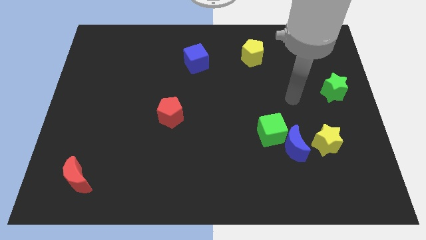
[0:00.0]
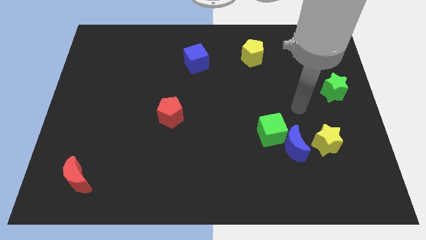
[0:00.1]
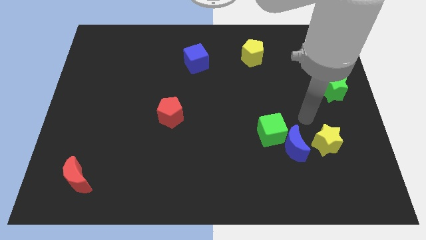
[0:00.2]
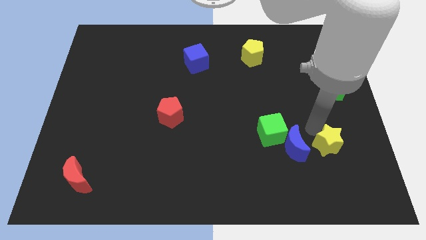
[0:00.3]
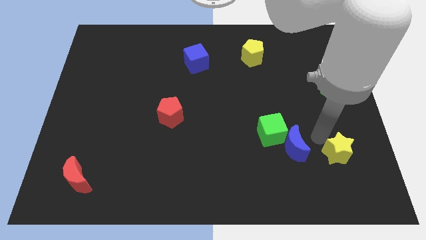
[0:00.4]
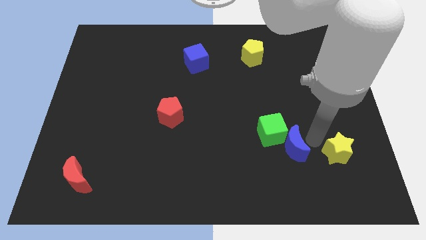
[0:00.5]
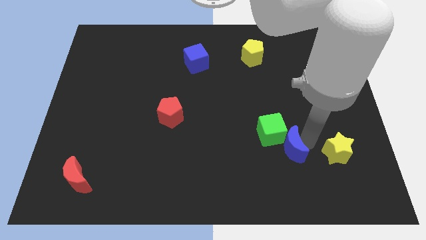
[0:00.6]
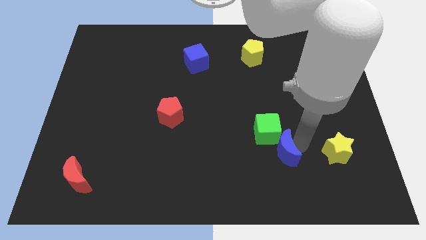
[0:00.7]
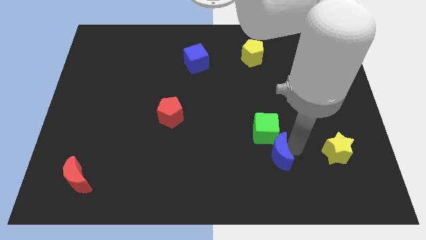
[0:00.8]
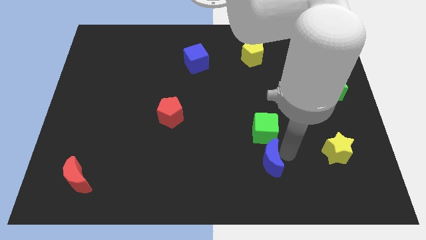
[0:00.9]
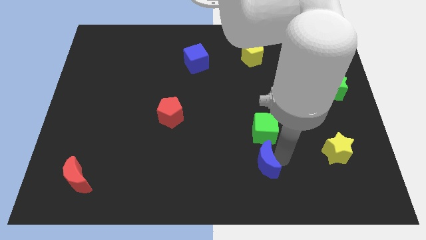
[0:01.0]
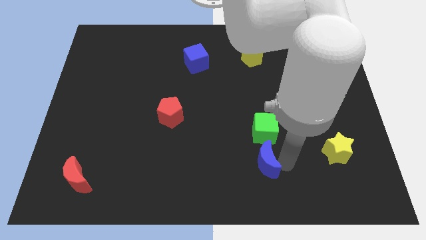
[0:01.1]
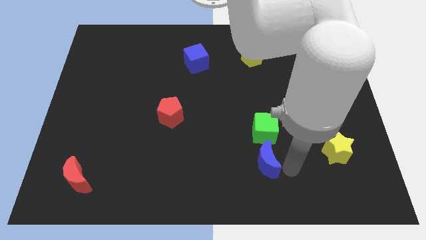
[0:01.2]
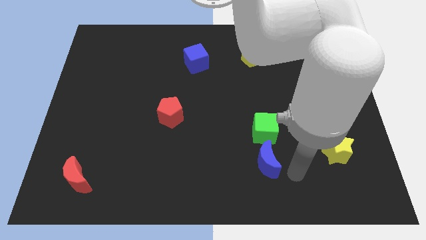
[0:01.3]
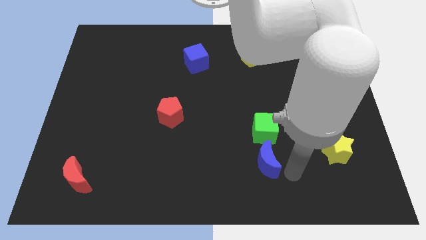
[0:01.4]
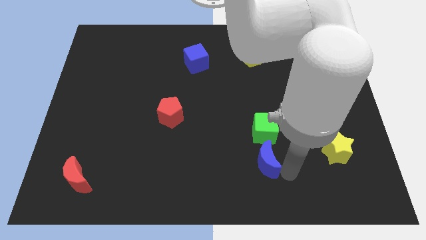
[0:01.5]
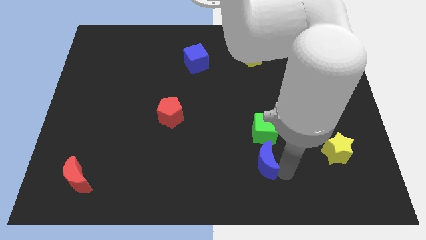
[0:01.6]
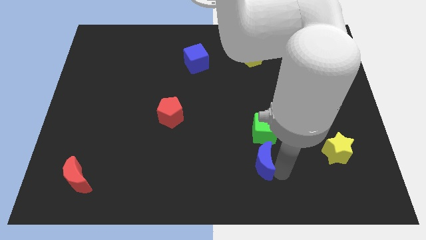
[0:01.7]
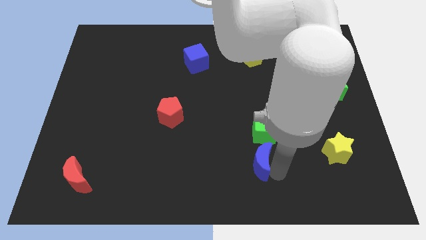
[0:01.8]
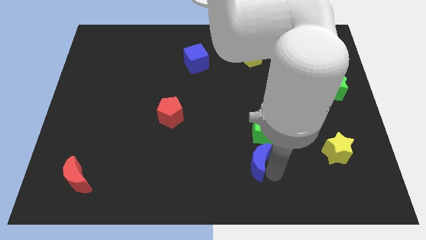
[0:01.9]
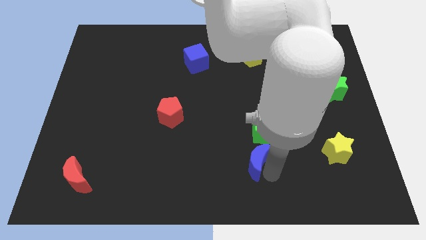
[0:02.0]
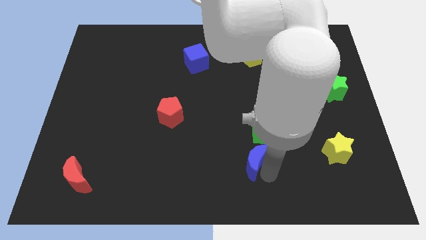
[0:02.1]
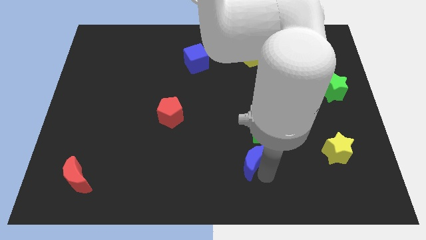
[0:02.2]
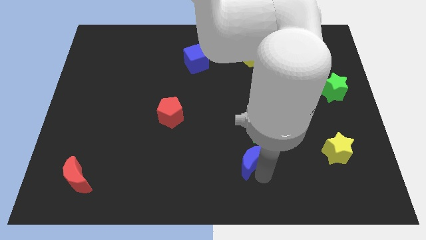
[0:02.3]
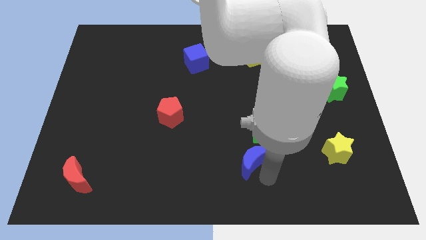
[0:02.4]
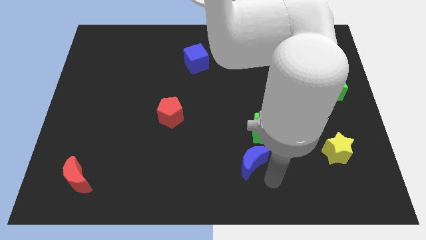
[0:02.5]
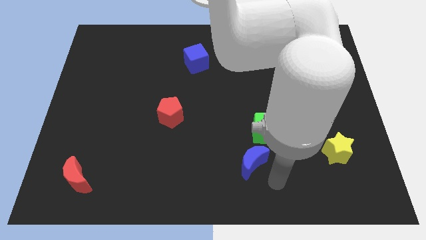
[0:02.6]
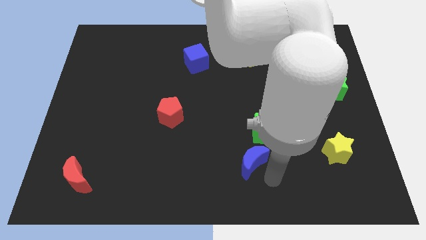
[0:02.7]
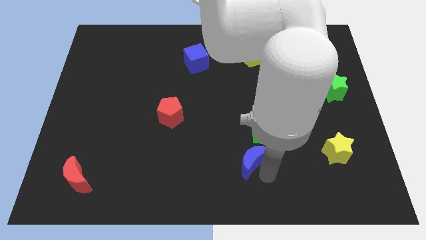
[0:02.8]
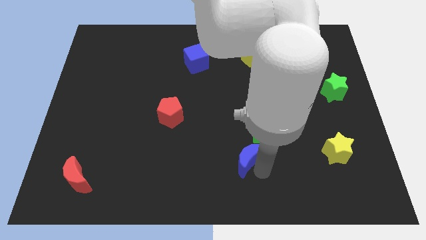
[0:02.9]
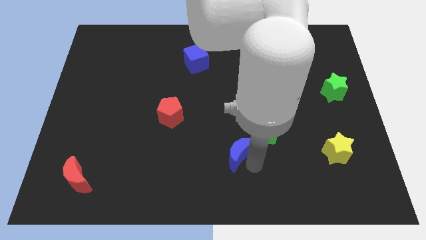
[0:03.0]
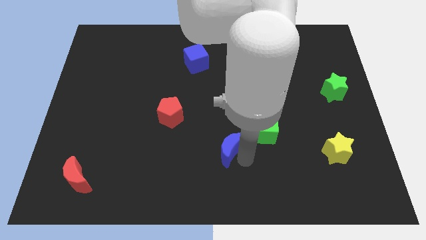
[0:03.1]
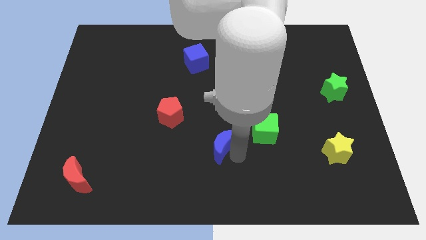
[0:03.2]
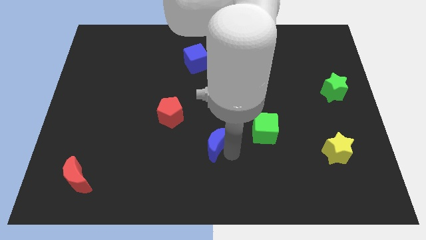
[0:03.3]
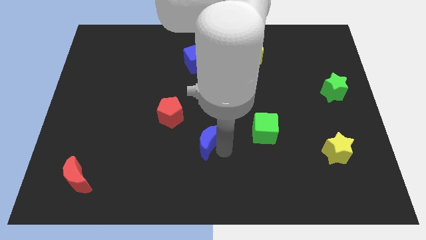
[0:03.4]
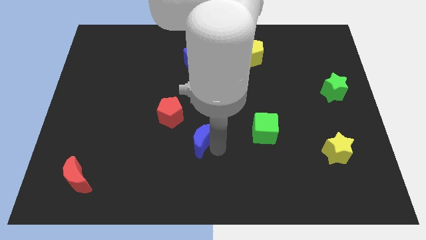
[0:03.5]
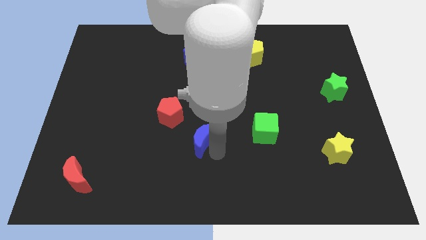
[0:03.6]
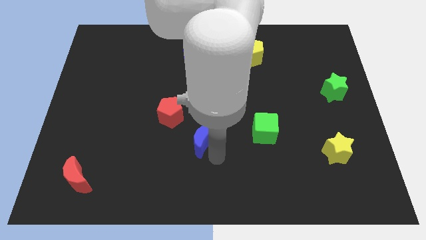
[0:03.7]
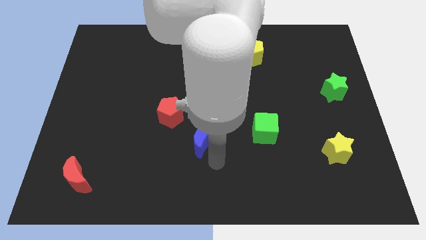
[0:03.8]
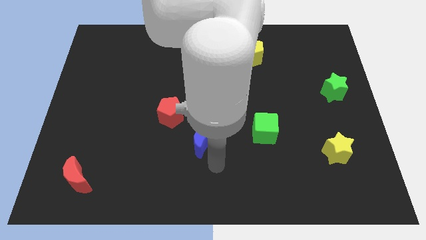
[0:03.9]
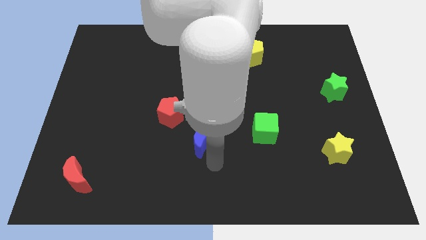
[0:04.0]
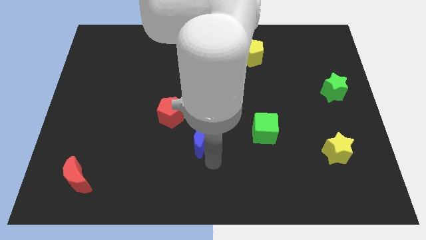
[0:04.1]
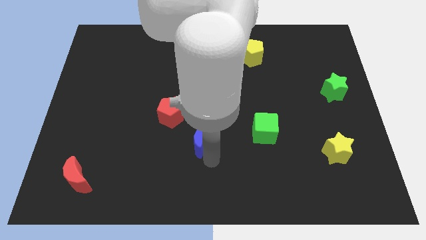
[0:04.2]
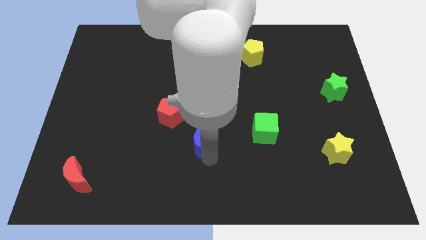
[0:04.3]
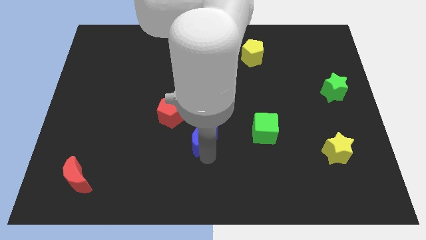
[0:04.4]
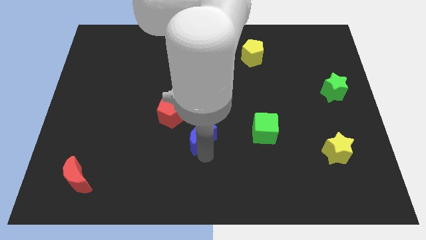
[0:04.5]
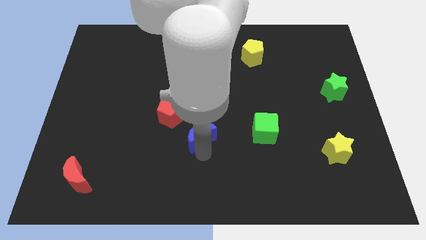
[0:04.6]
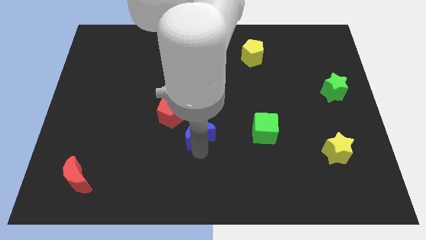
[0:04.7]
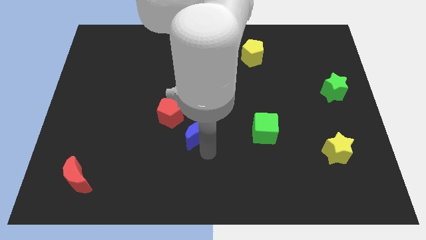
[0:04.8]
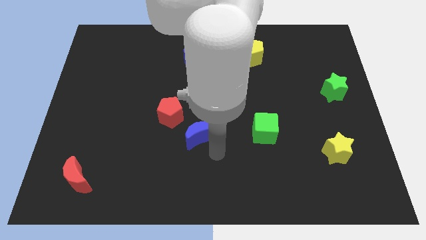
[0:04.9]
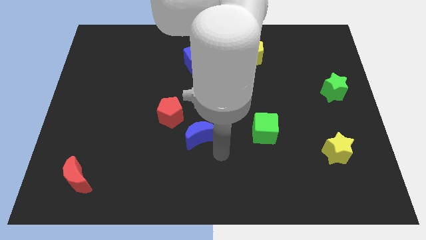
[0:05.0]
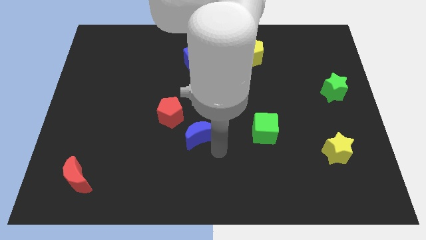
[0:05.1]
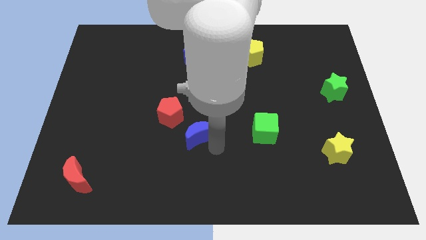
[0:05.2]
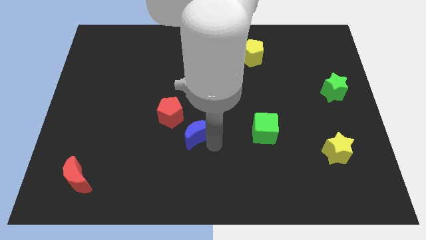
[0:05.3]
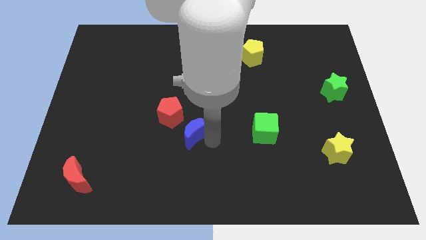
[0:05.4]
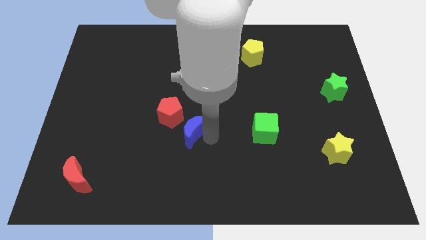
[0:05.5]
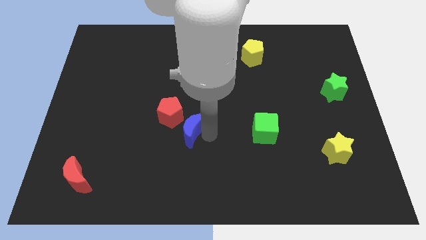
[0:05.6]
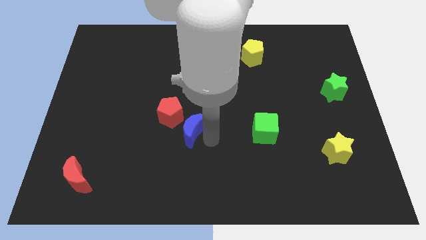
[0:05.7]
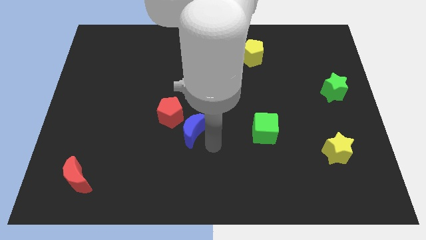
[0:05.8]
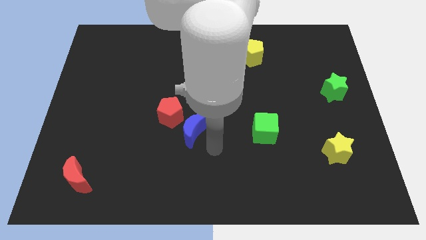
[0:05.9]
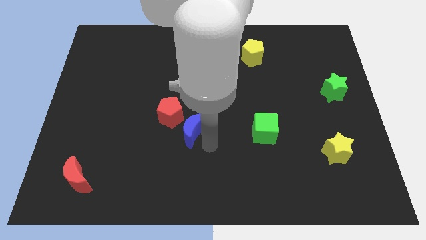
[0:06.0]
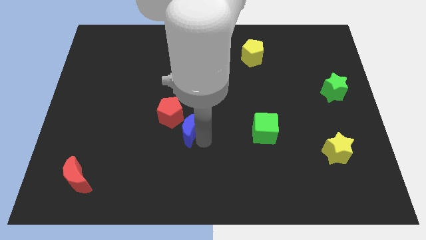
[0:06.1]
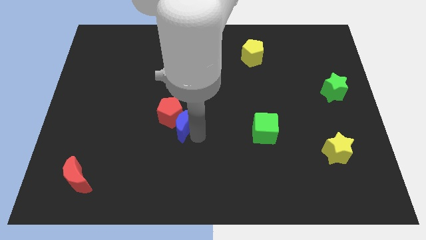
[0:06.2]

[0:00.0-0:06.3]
put the blue moon towards the red pentagon
